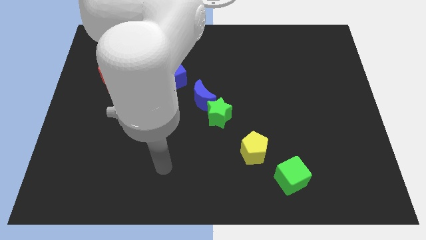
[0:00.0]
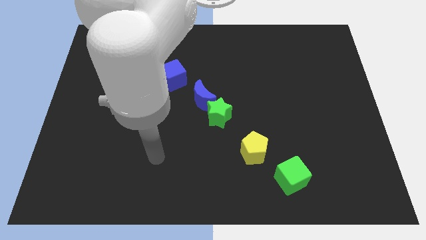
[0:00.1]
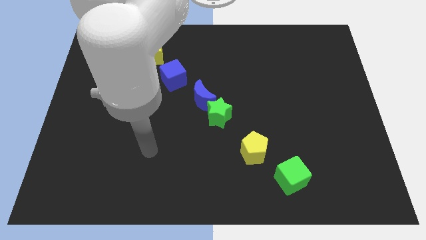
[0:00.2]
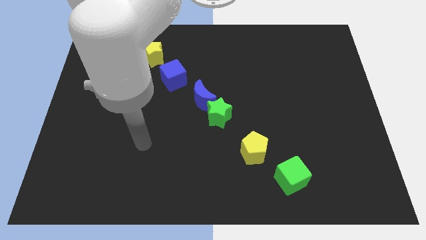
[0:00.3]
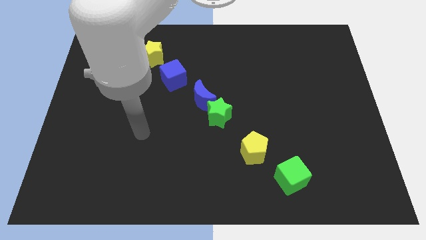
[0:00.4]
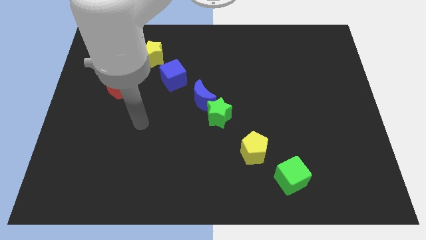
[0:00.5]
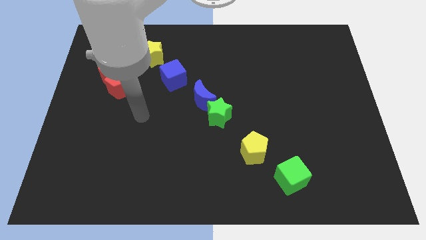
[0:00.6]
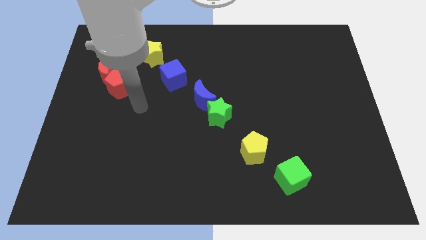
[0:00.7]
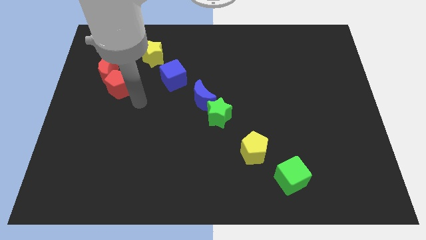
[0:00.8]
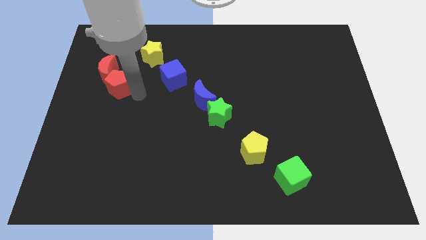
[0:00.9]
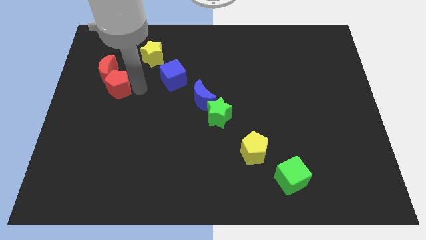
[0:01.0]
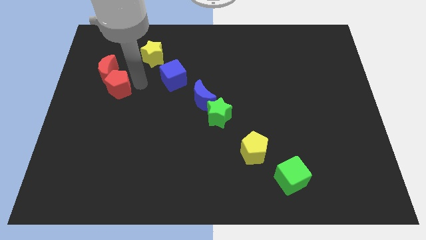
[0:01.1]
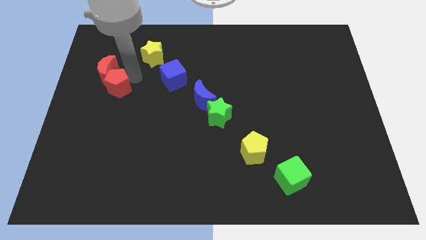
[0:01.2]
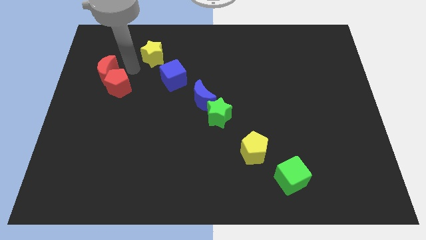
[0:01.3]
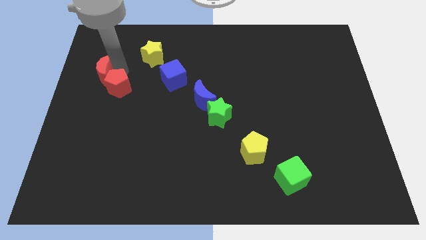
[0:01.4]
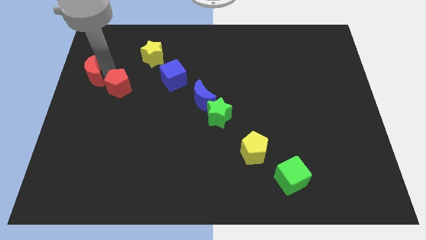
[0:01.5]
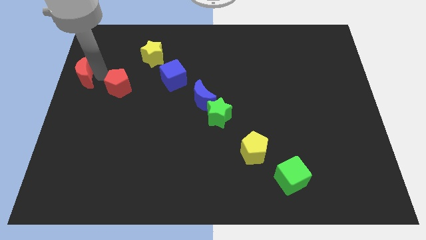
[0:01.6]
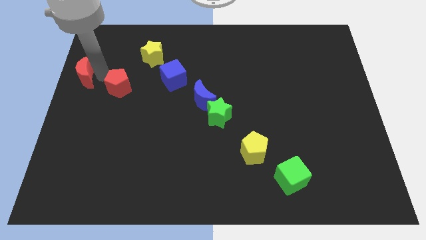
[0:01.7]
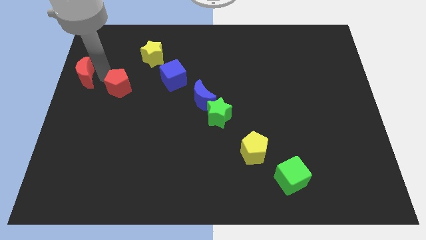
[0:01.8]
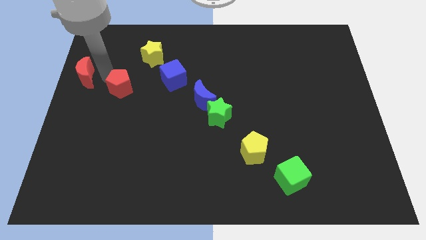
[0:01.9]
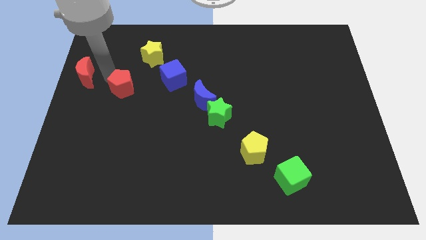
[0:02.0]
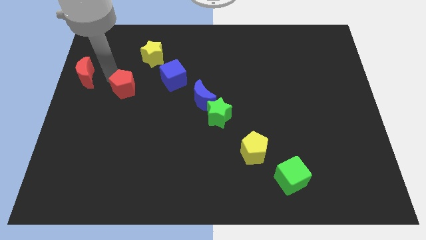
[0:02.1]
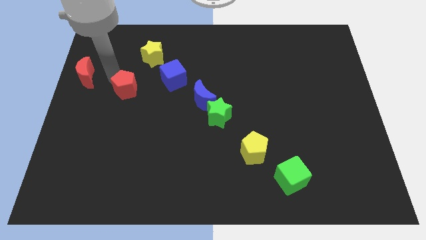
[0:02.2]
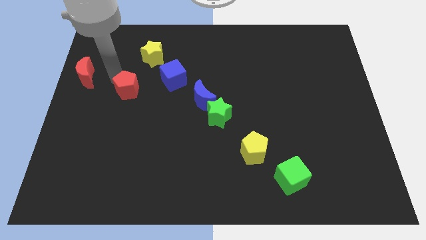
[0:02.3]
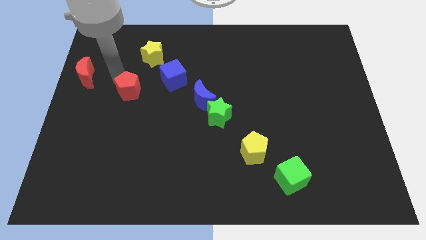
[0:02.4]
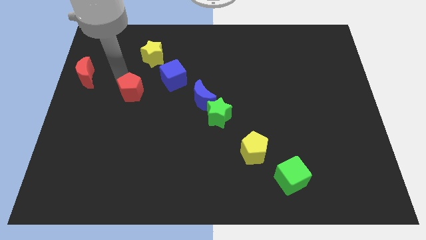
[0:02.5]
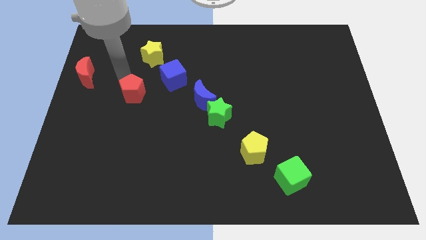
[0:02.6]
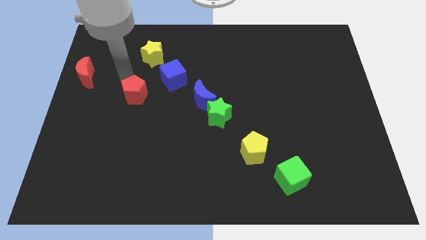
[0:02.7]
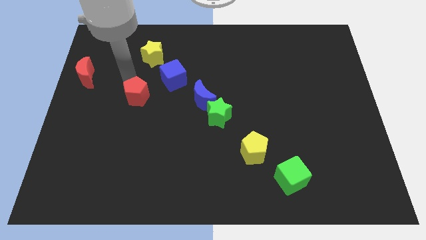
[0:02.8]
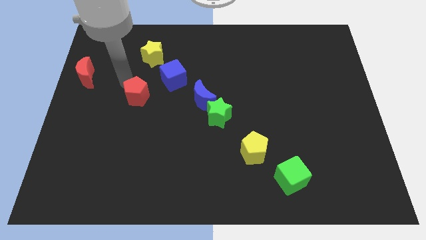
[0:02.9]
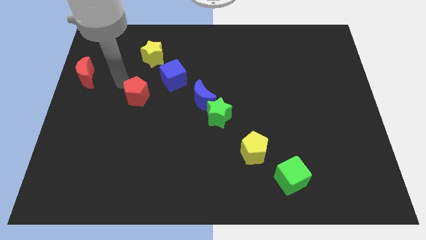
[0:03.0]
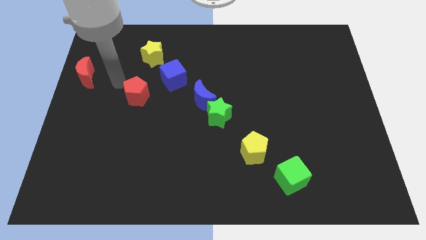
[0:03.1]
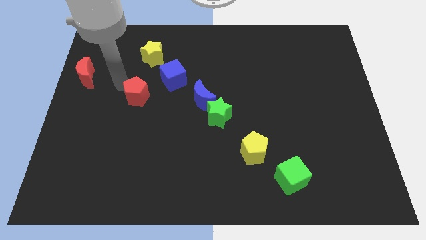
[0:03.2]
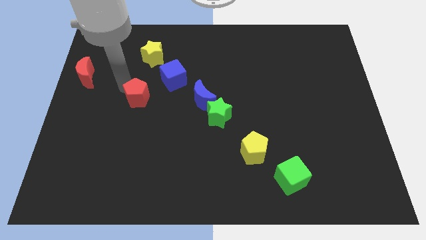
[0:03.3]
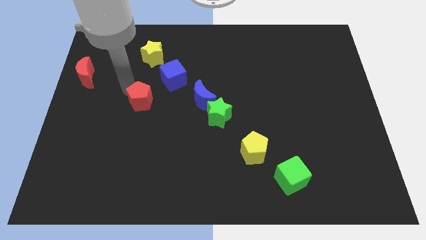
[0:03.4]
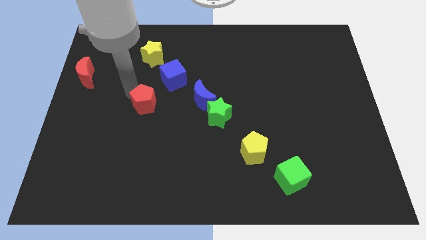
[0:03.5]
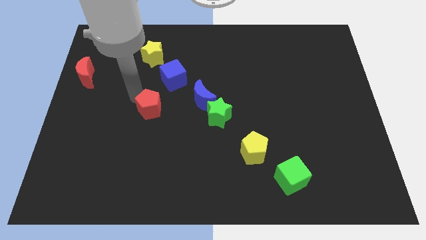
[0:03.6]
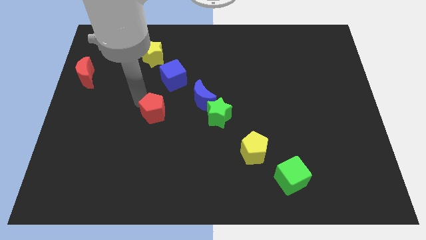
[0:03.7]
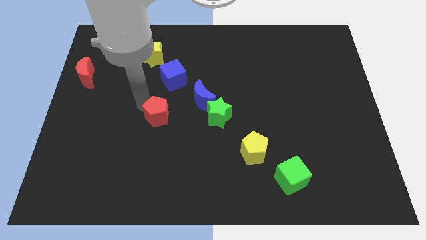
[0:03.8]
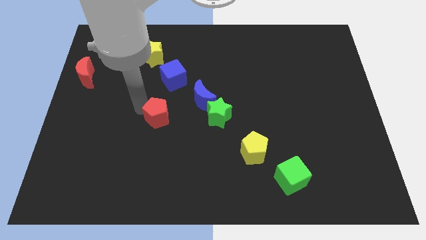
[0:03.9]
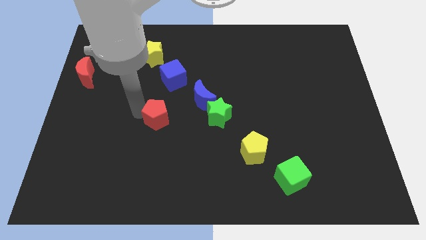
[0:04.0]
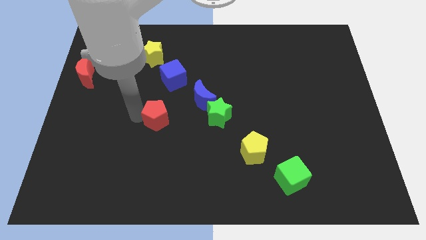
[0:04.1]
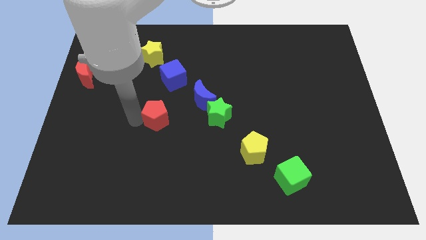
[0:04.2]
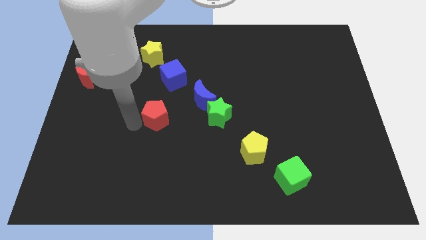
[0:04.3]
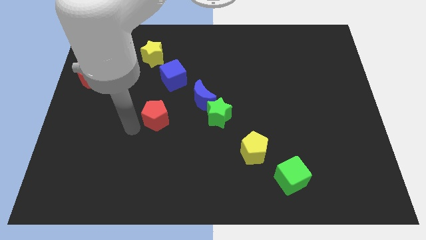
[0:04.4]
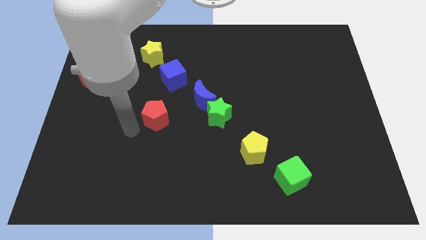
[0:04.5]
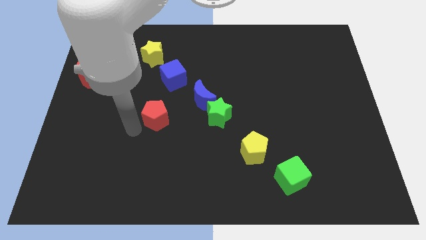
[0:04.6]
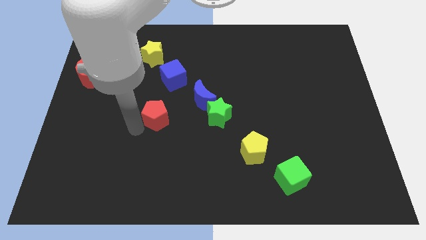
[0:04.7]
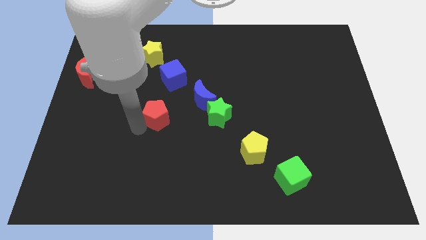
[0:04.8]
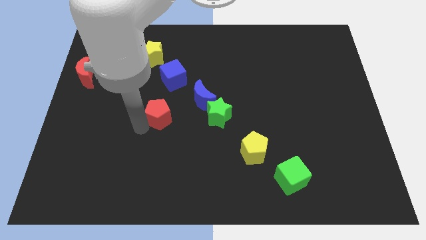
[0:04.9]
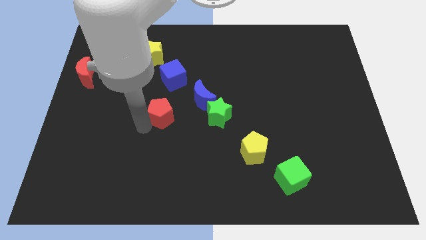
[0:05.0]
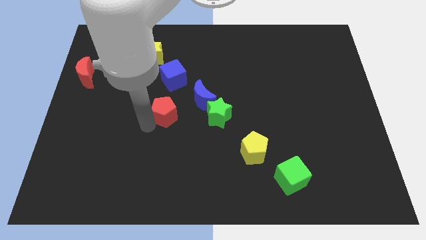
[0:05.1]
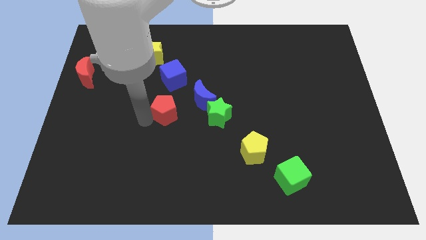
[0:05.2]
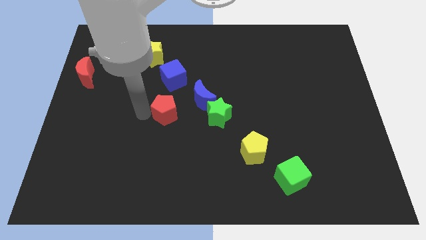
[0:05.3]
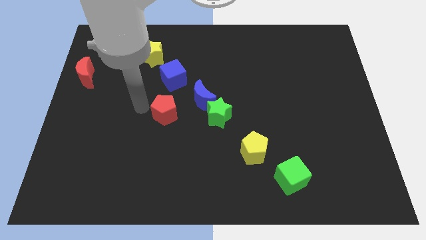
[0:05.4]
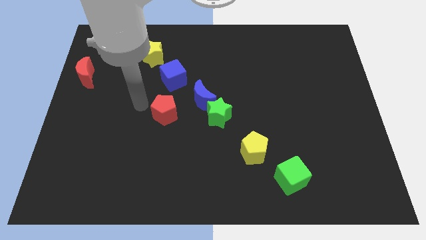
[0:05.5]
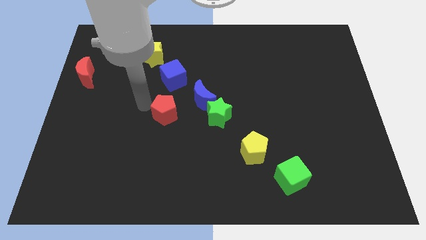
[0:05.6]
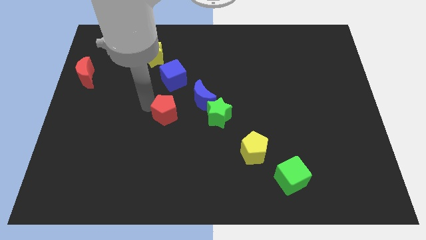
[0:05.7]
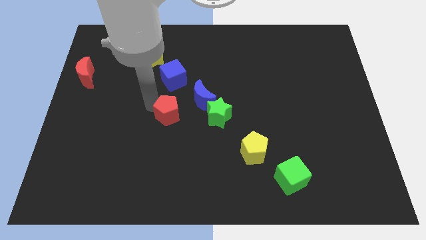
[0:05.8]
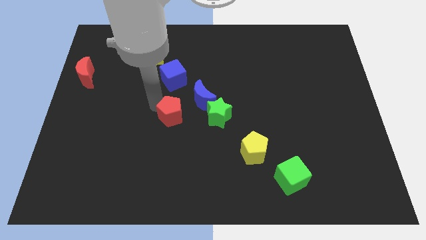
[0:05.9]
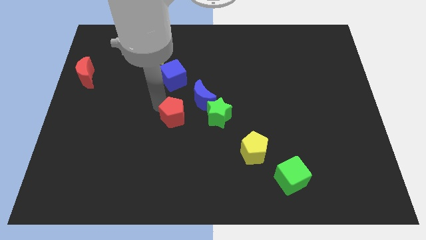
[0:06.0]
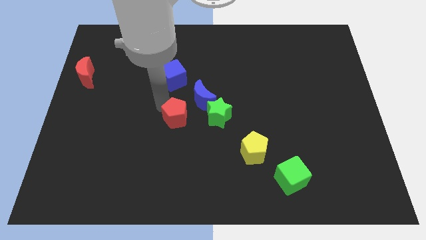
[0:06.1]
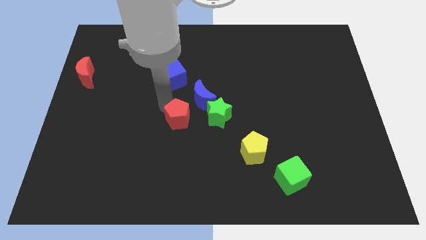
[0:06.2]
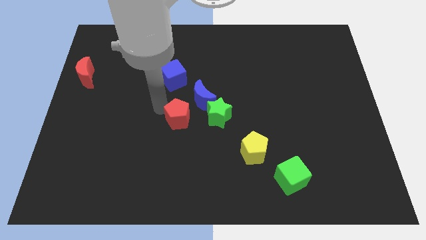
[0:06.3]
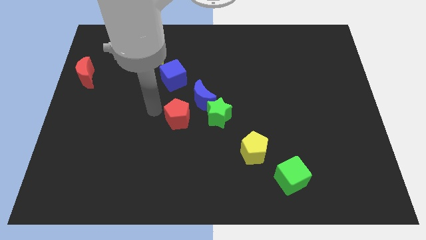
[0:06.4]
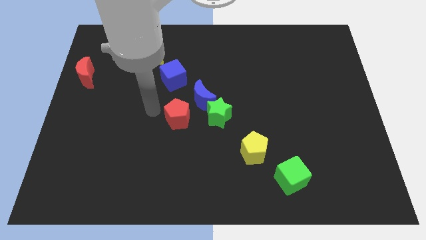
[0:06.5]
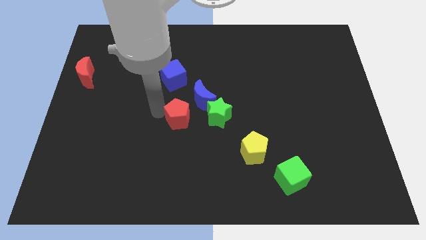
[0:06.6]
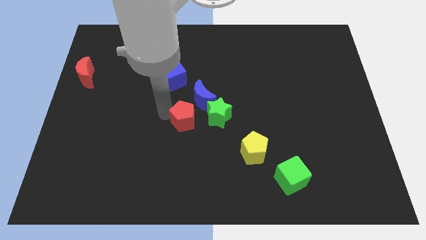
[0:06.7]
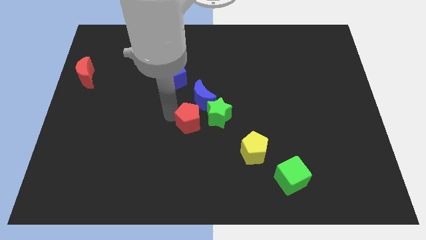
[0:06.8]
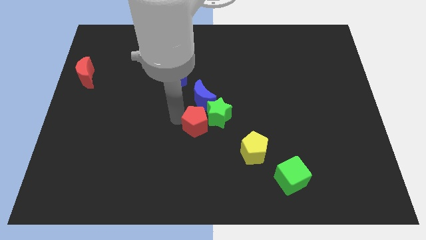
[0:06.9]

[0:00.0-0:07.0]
put the red pentagon to the green star

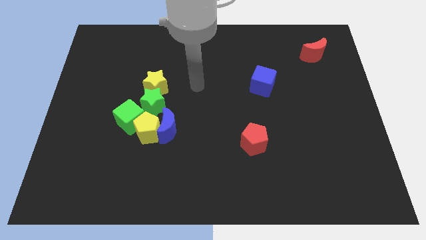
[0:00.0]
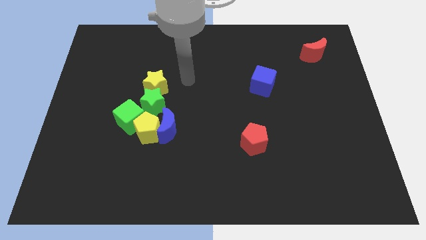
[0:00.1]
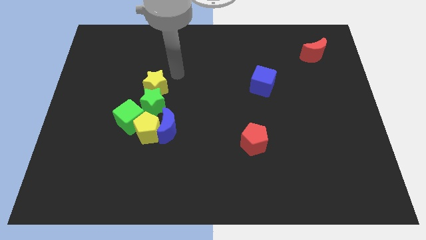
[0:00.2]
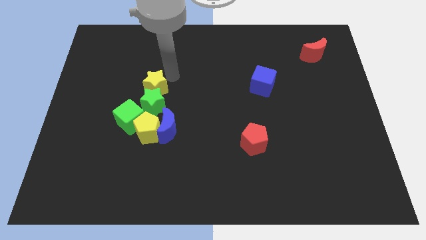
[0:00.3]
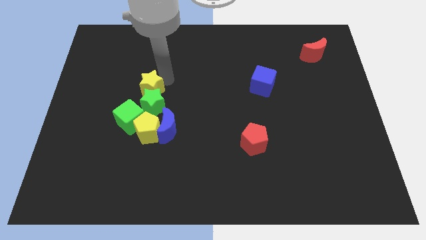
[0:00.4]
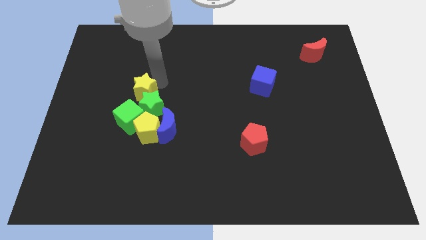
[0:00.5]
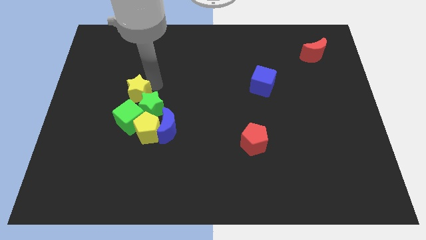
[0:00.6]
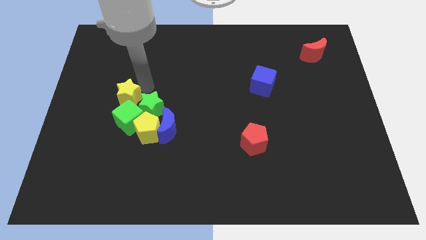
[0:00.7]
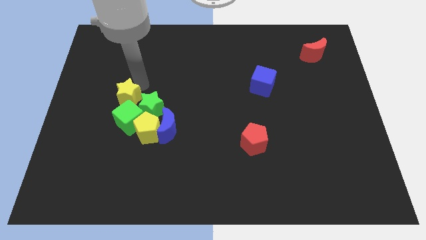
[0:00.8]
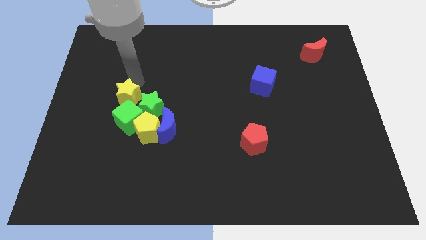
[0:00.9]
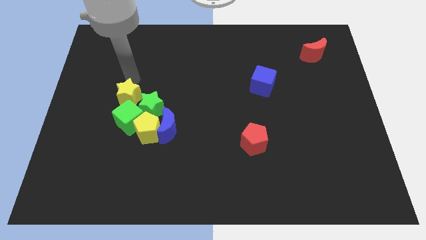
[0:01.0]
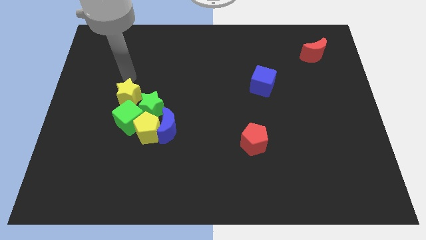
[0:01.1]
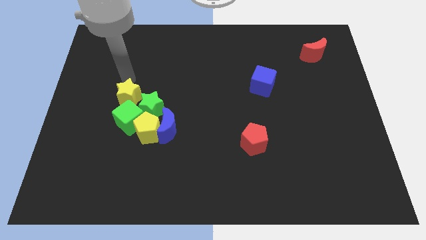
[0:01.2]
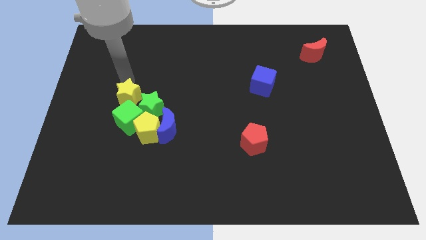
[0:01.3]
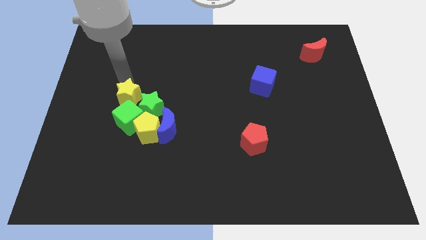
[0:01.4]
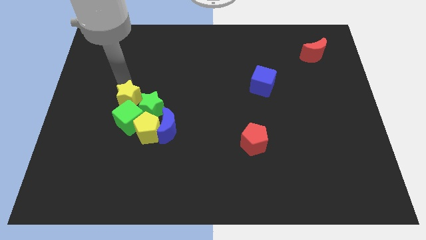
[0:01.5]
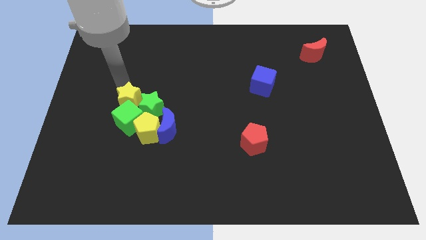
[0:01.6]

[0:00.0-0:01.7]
put the yellow star to the green cube
